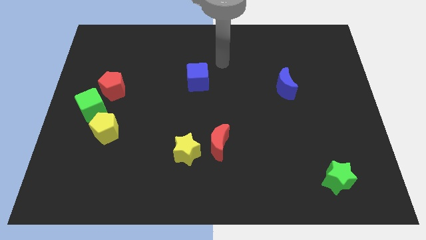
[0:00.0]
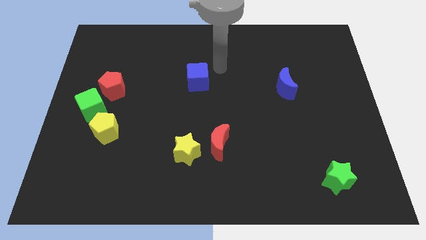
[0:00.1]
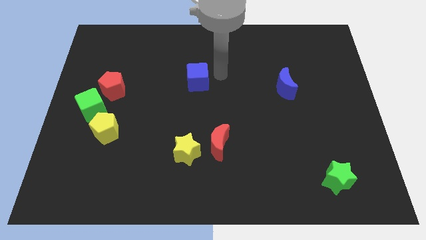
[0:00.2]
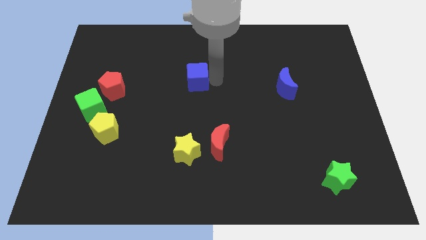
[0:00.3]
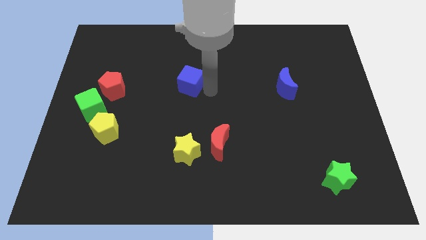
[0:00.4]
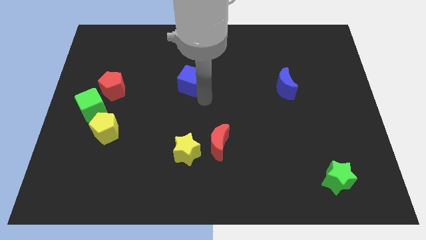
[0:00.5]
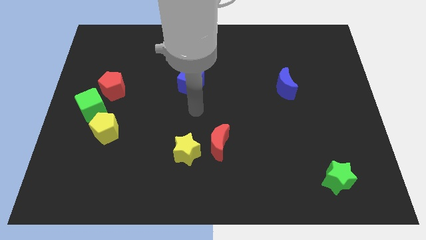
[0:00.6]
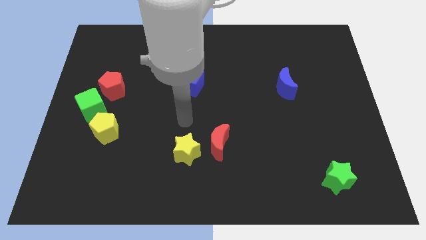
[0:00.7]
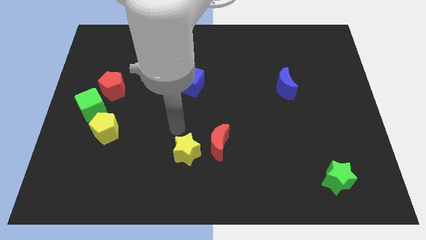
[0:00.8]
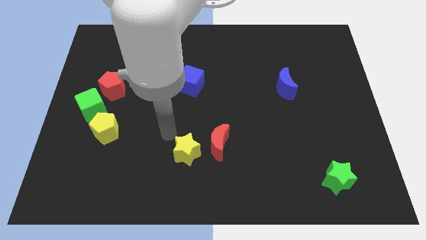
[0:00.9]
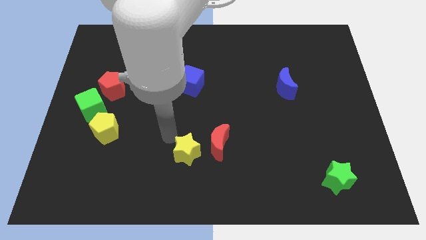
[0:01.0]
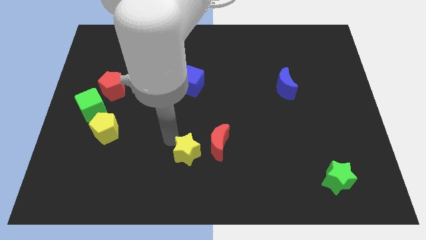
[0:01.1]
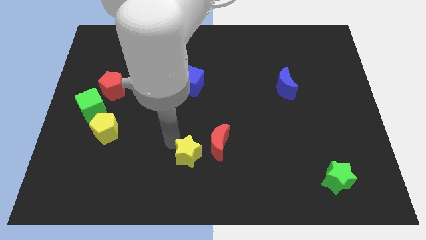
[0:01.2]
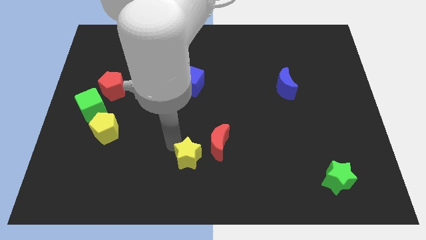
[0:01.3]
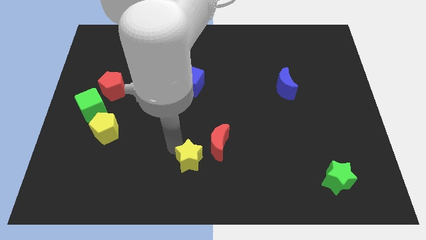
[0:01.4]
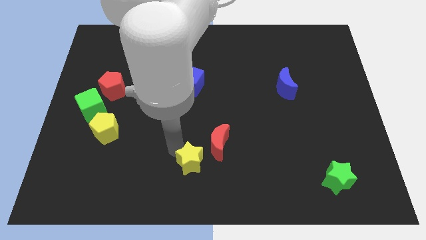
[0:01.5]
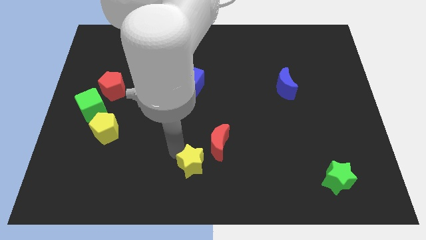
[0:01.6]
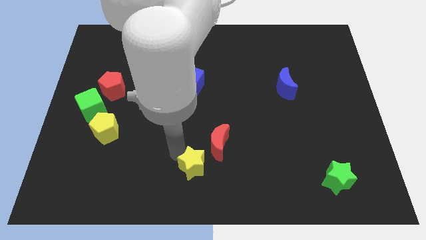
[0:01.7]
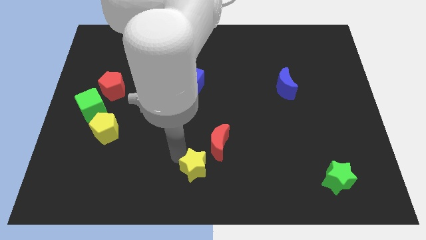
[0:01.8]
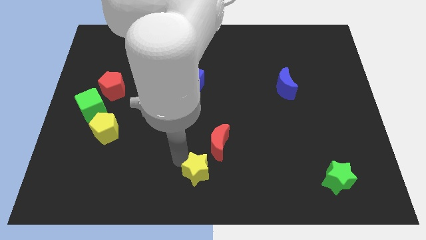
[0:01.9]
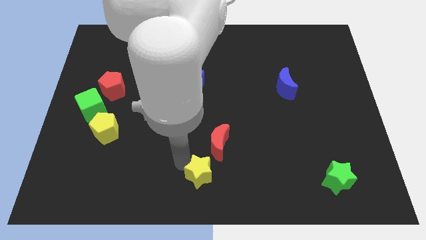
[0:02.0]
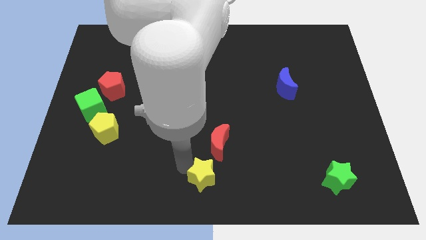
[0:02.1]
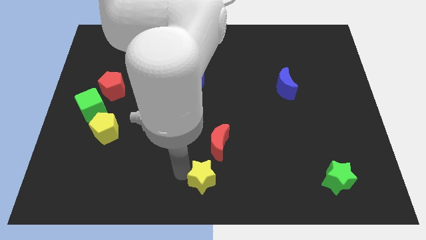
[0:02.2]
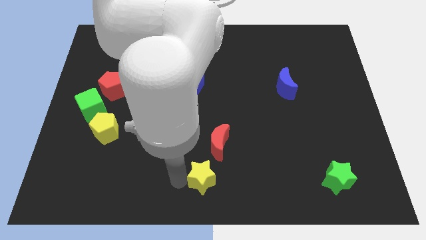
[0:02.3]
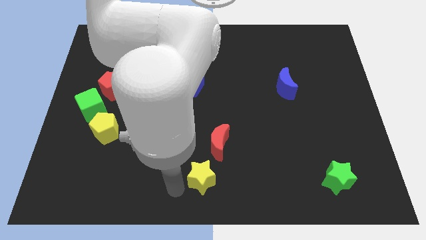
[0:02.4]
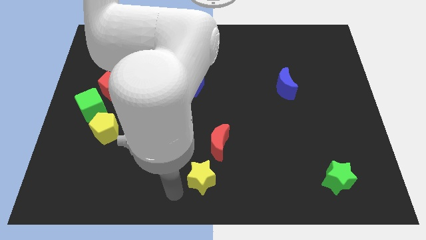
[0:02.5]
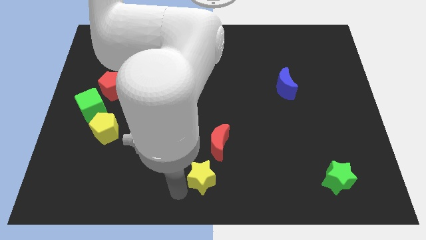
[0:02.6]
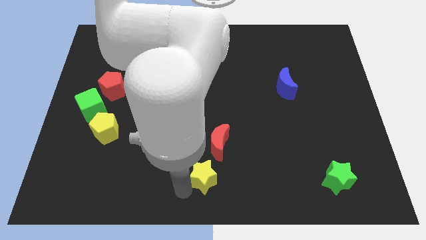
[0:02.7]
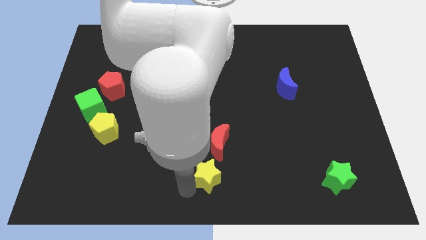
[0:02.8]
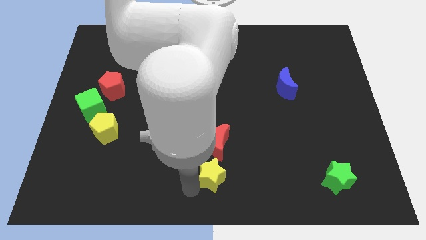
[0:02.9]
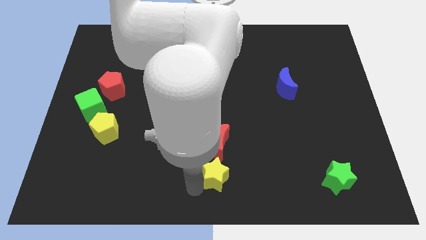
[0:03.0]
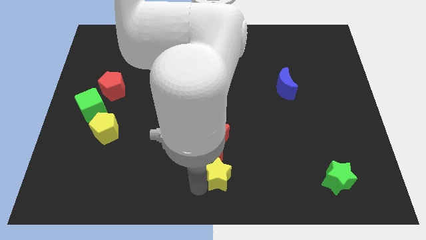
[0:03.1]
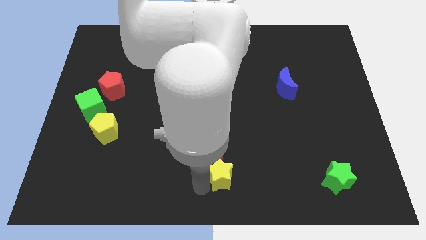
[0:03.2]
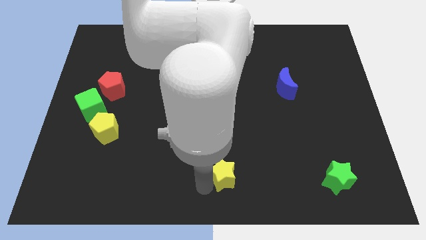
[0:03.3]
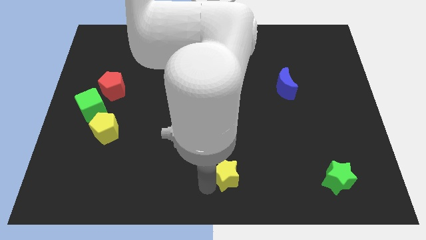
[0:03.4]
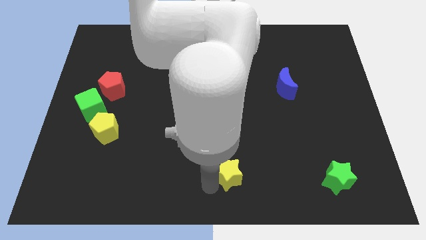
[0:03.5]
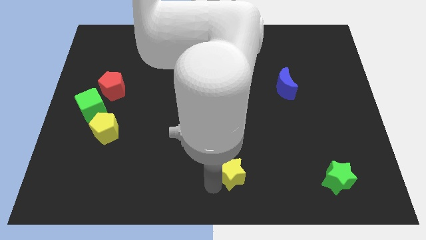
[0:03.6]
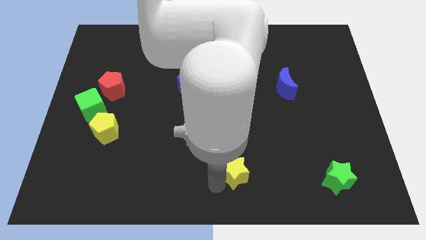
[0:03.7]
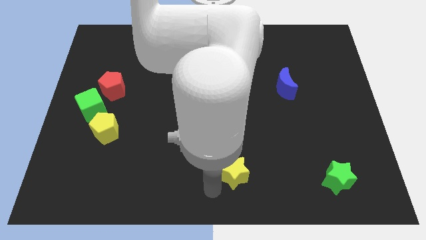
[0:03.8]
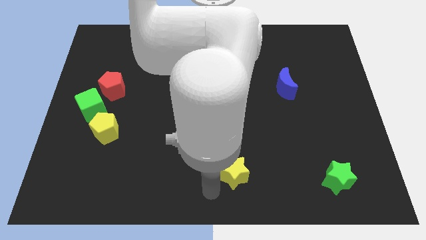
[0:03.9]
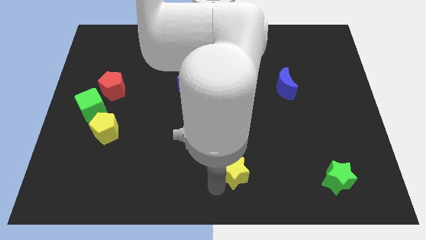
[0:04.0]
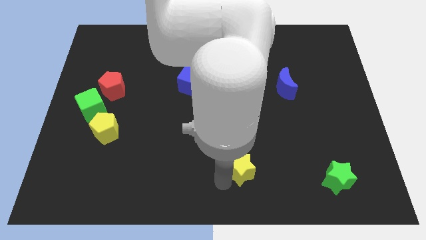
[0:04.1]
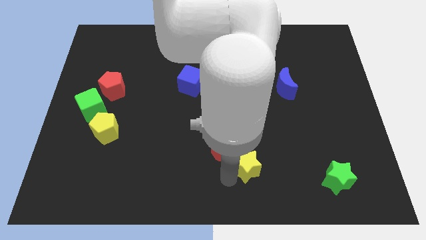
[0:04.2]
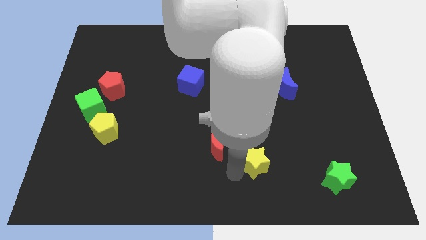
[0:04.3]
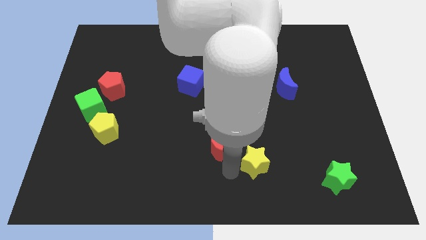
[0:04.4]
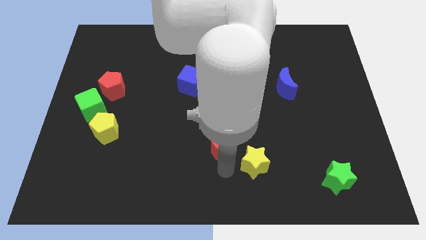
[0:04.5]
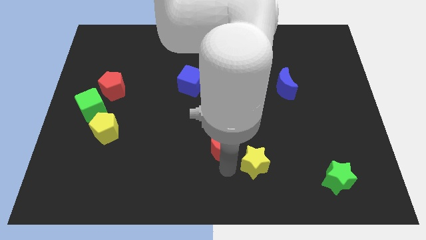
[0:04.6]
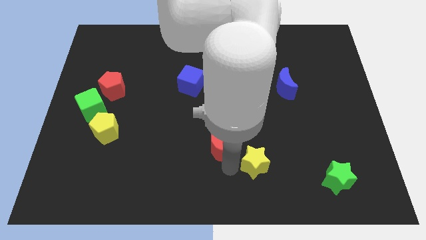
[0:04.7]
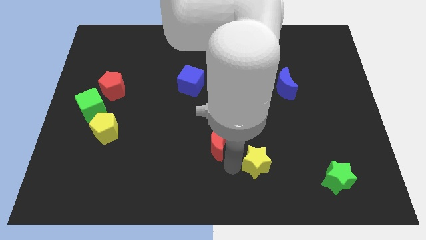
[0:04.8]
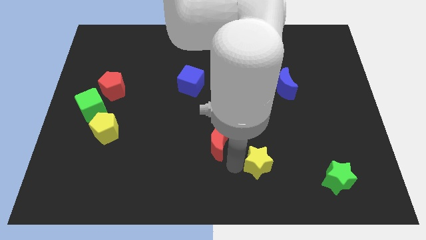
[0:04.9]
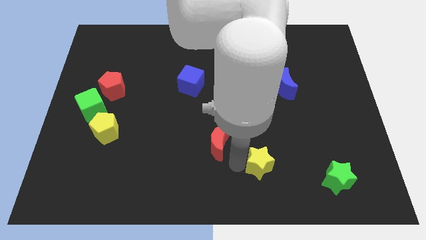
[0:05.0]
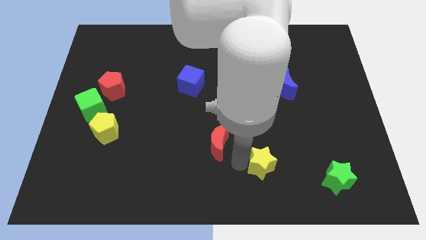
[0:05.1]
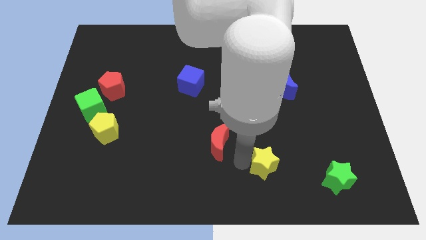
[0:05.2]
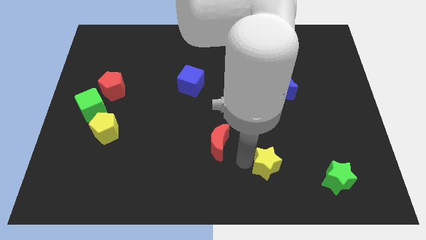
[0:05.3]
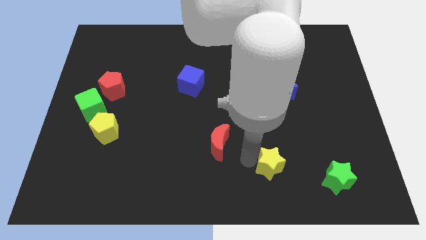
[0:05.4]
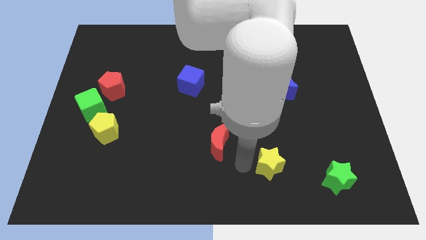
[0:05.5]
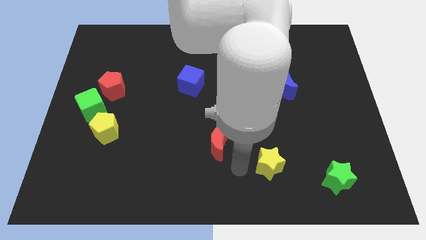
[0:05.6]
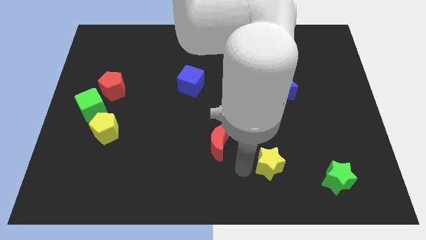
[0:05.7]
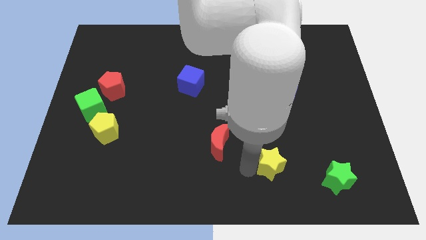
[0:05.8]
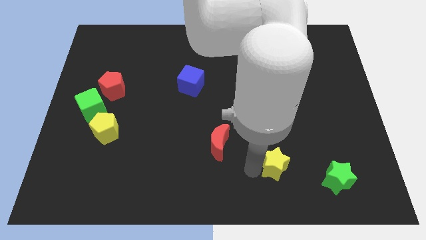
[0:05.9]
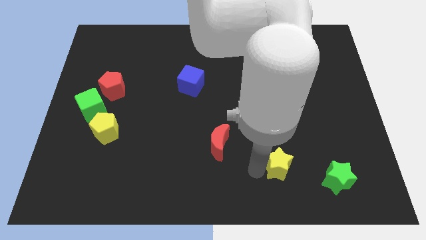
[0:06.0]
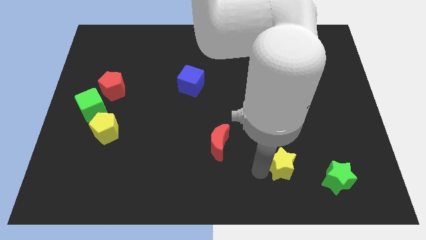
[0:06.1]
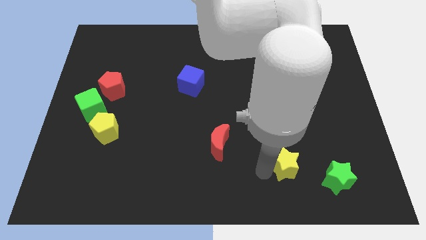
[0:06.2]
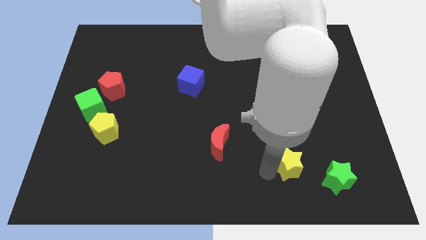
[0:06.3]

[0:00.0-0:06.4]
push the yellow star to the top left of the green star

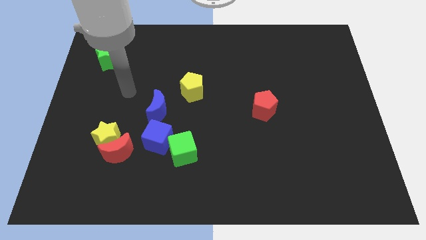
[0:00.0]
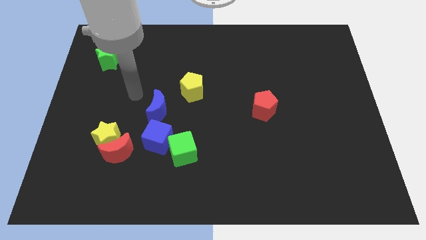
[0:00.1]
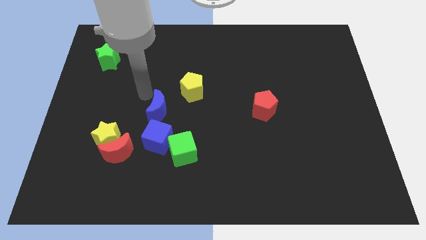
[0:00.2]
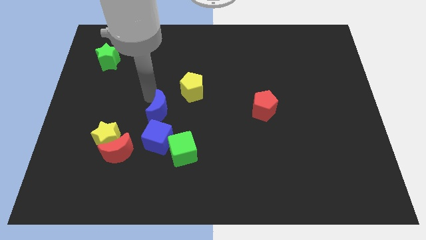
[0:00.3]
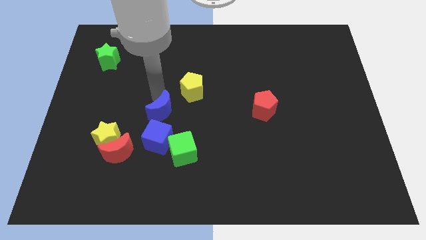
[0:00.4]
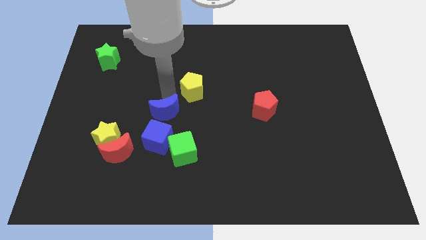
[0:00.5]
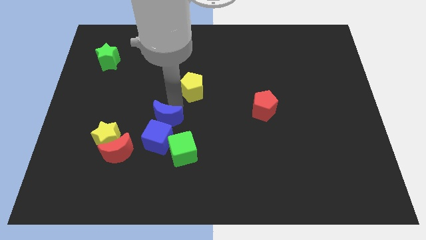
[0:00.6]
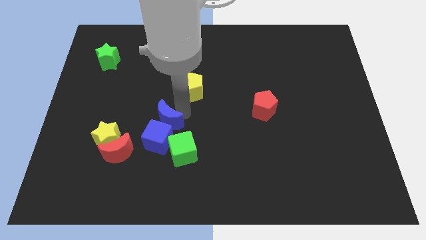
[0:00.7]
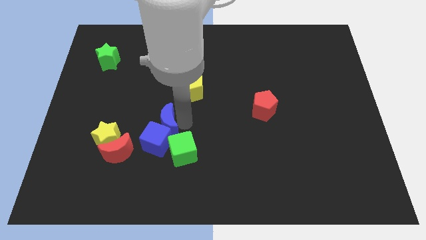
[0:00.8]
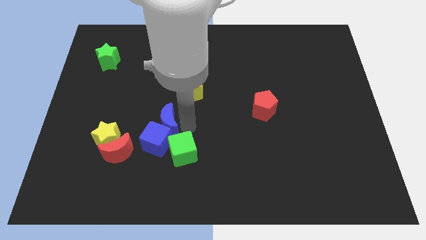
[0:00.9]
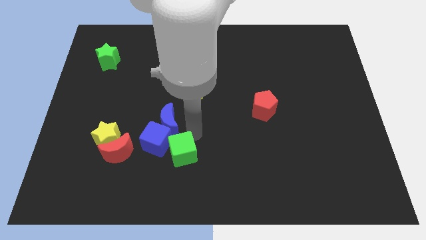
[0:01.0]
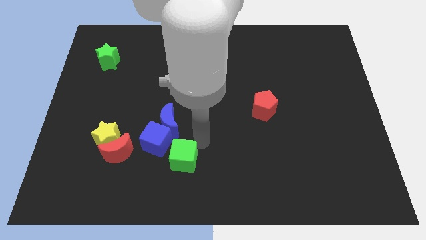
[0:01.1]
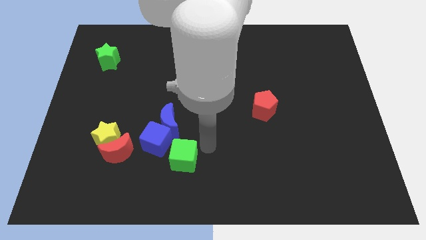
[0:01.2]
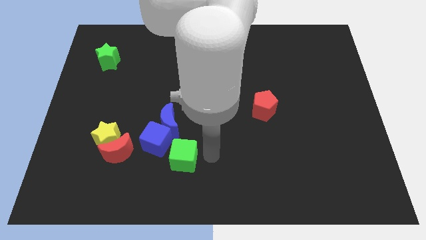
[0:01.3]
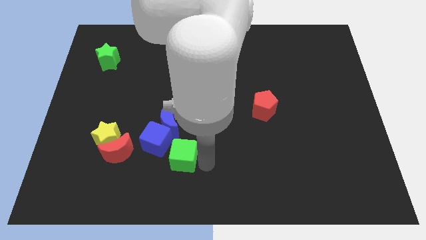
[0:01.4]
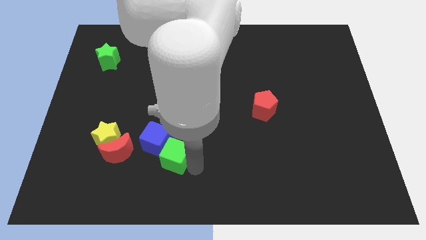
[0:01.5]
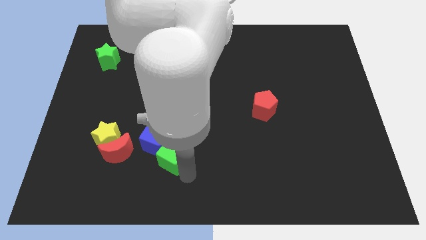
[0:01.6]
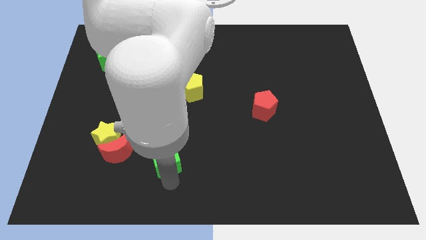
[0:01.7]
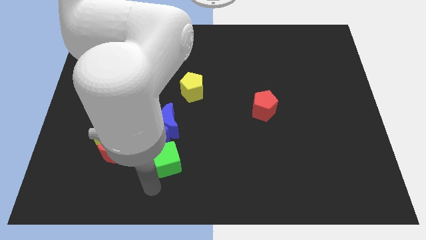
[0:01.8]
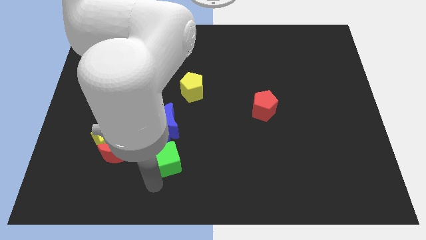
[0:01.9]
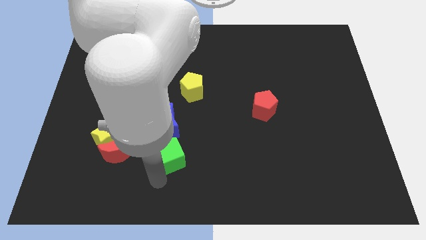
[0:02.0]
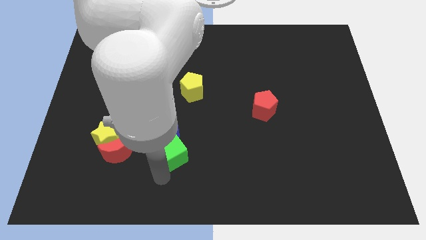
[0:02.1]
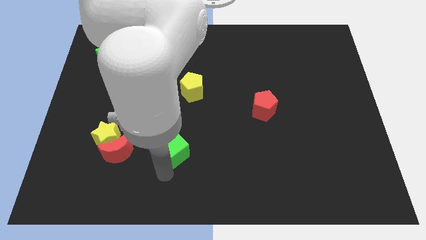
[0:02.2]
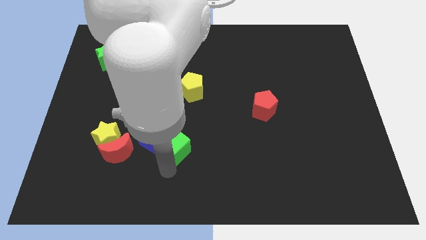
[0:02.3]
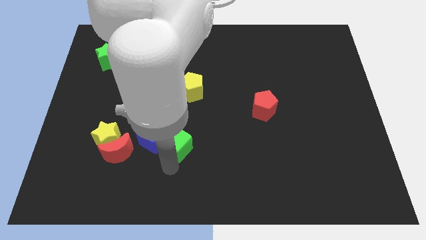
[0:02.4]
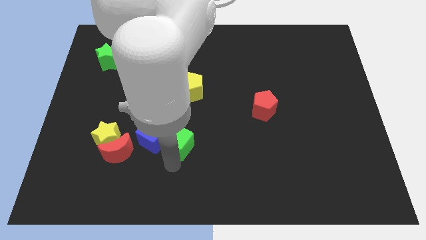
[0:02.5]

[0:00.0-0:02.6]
move the green cube below the yellow pentagon
